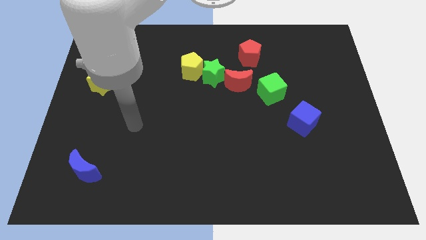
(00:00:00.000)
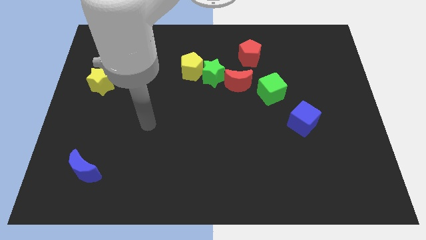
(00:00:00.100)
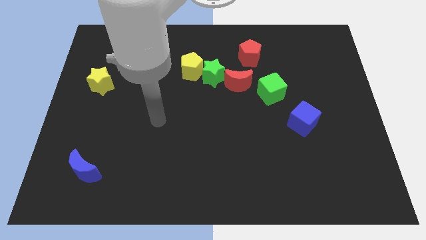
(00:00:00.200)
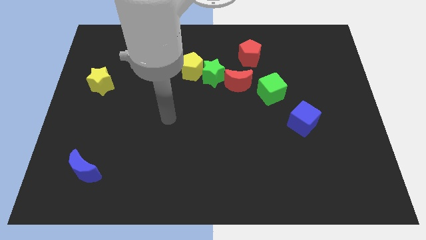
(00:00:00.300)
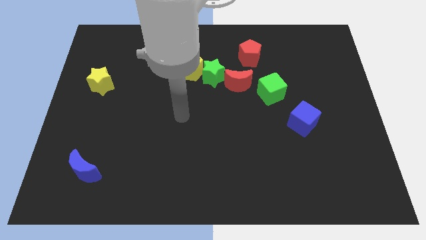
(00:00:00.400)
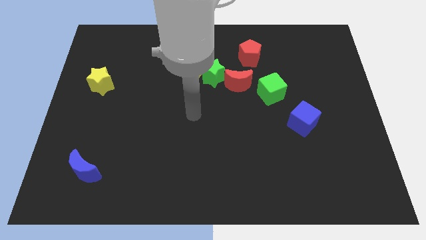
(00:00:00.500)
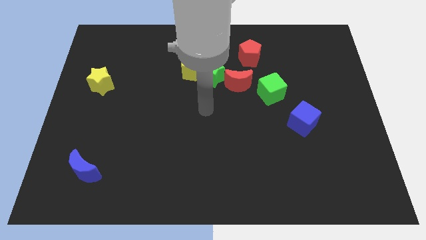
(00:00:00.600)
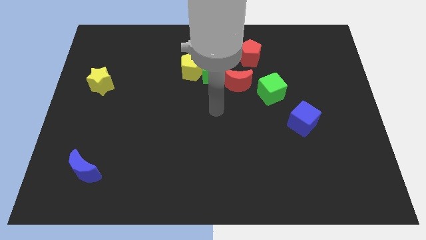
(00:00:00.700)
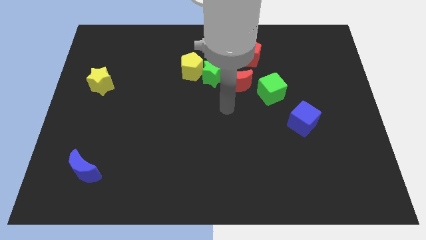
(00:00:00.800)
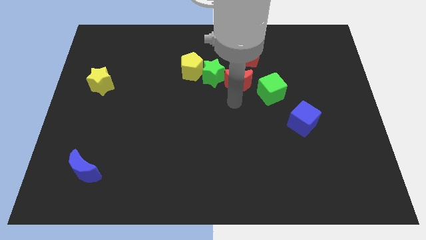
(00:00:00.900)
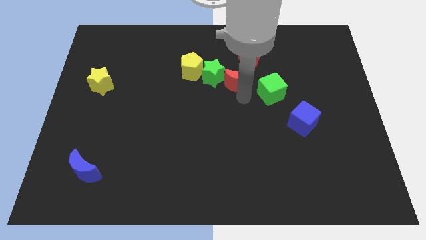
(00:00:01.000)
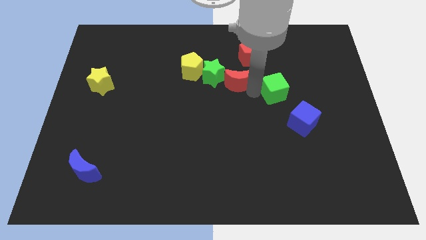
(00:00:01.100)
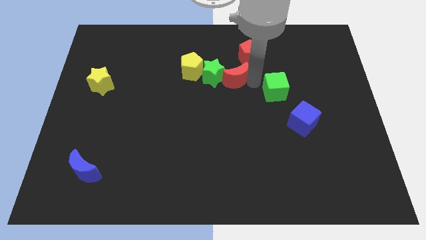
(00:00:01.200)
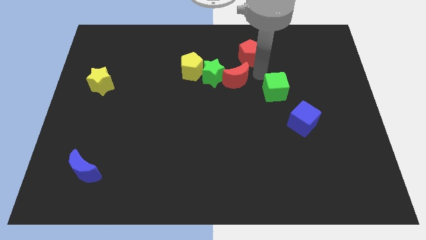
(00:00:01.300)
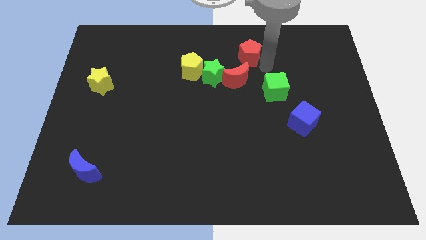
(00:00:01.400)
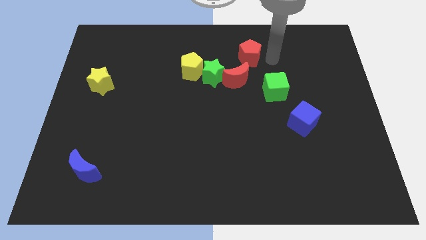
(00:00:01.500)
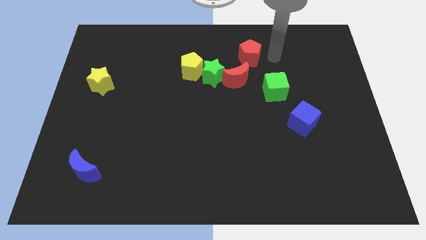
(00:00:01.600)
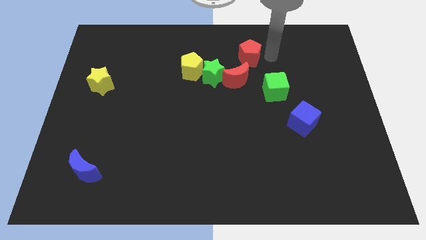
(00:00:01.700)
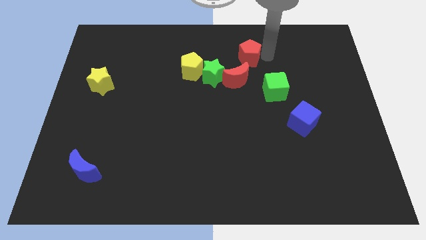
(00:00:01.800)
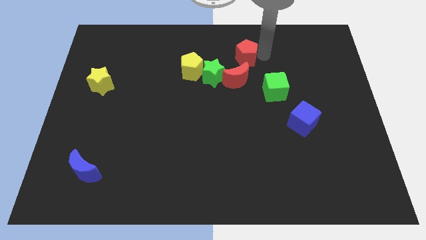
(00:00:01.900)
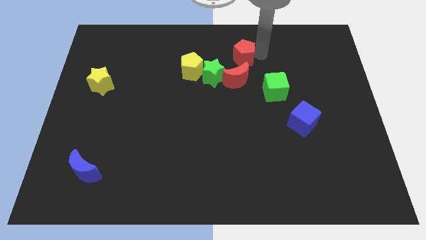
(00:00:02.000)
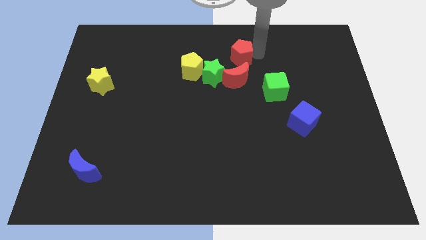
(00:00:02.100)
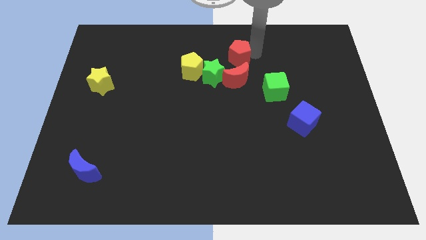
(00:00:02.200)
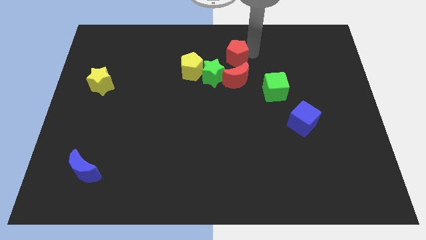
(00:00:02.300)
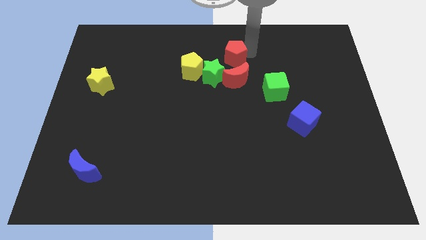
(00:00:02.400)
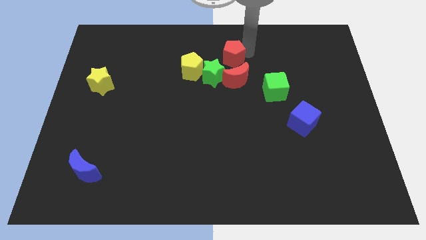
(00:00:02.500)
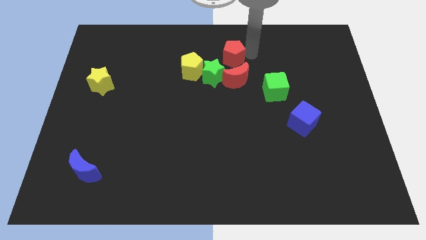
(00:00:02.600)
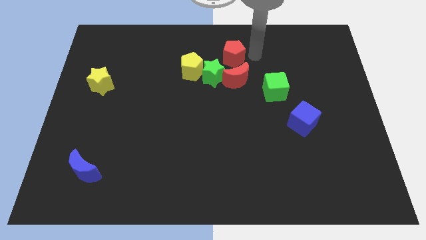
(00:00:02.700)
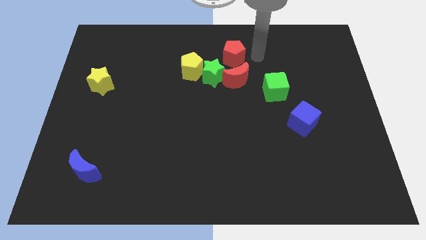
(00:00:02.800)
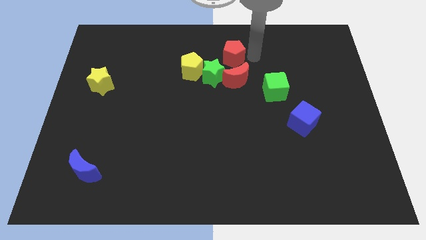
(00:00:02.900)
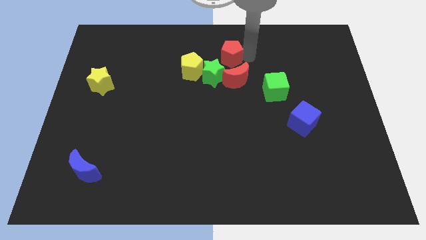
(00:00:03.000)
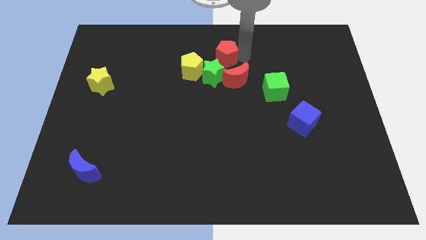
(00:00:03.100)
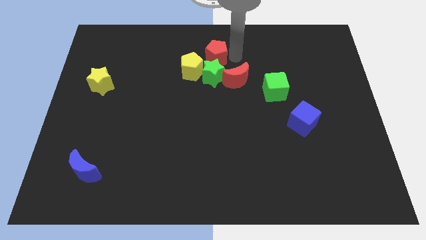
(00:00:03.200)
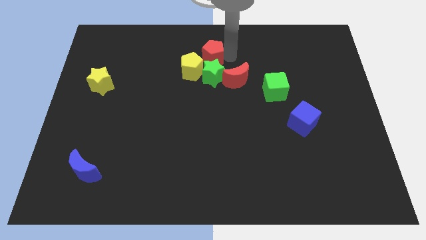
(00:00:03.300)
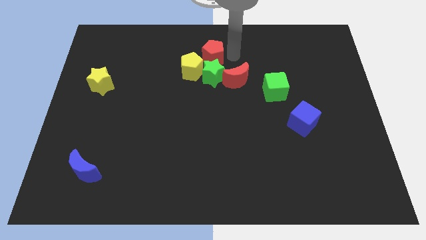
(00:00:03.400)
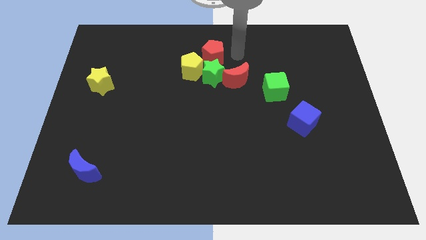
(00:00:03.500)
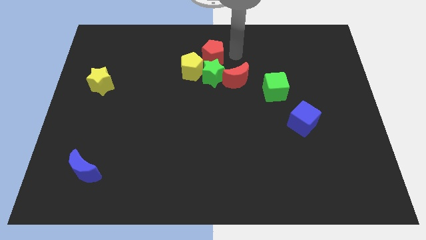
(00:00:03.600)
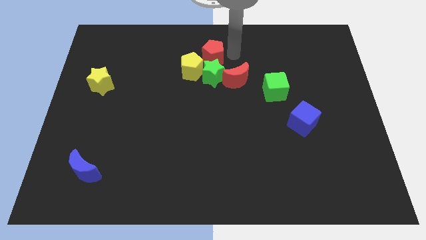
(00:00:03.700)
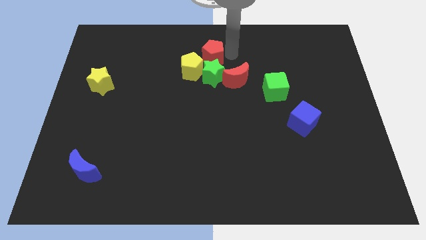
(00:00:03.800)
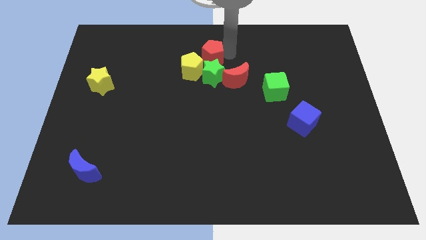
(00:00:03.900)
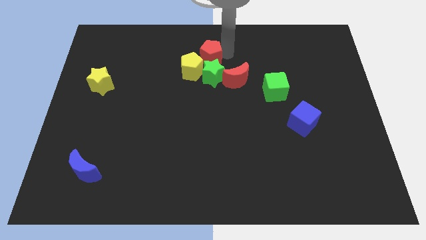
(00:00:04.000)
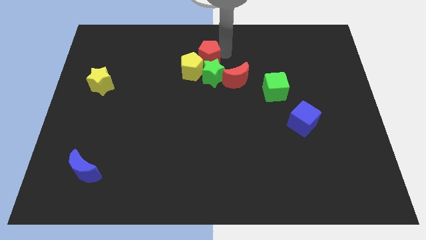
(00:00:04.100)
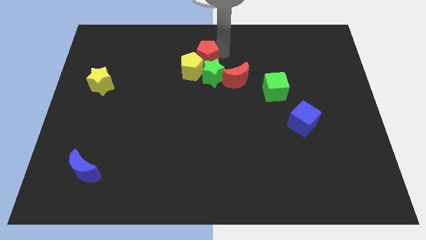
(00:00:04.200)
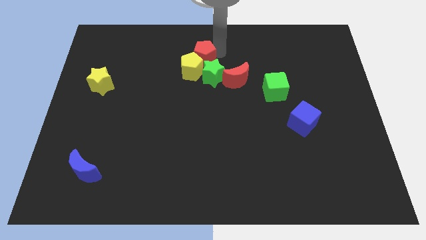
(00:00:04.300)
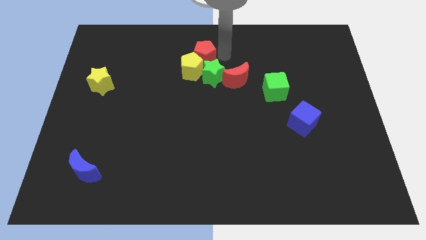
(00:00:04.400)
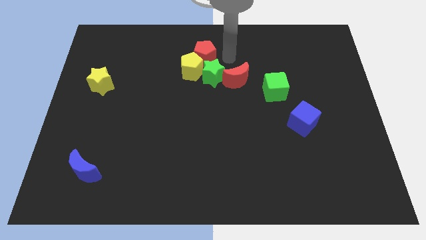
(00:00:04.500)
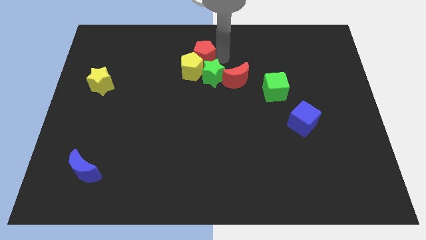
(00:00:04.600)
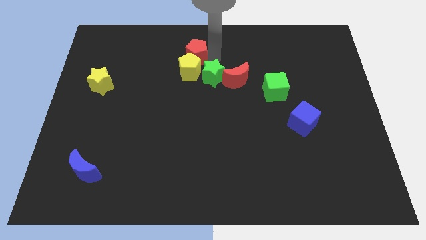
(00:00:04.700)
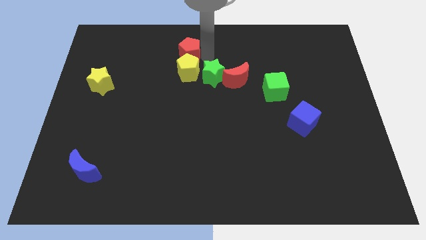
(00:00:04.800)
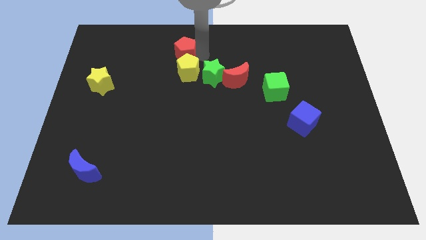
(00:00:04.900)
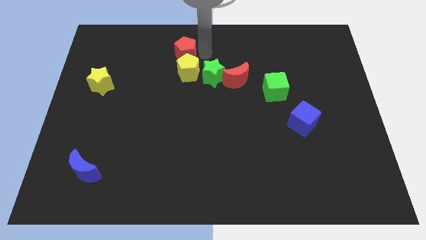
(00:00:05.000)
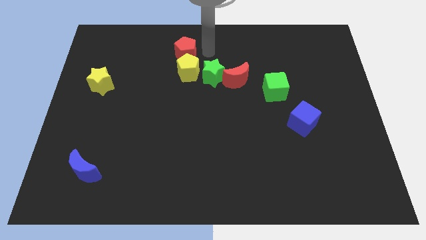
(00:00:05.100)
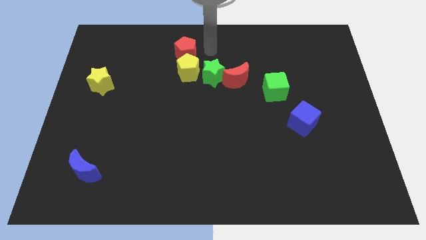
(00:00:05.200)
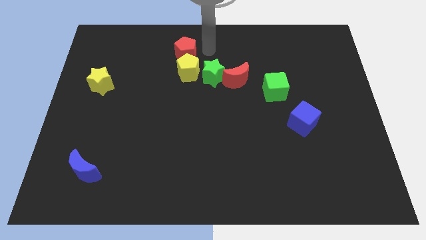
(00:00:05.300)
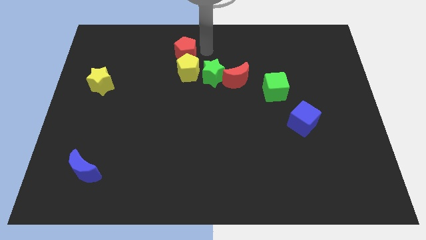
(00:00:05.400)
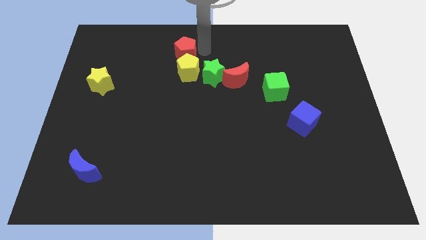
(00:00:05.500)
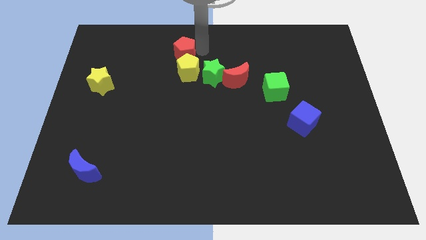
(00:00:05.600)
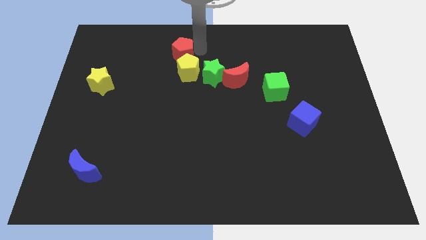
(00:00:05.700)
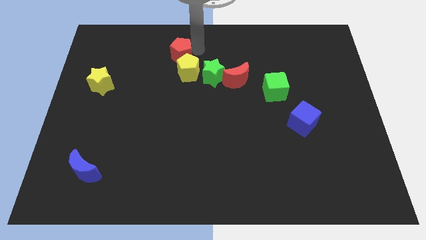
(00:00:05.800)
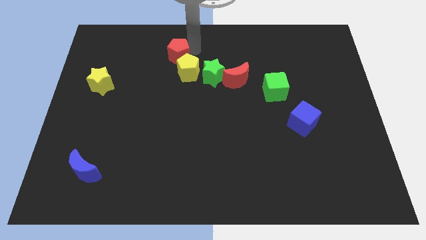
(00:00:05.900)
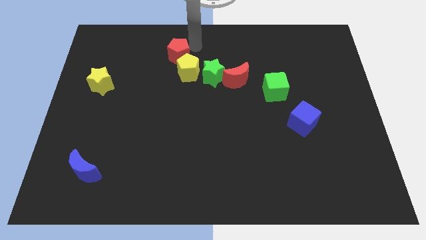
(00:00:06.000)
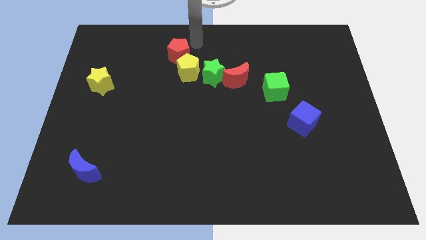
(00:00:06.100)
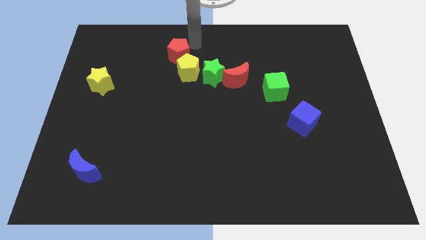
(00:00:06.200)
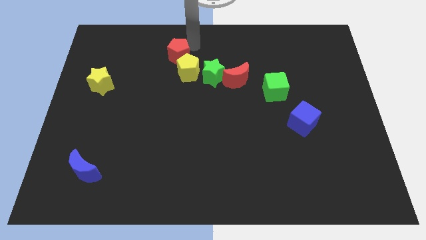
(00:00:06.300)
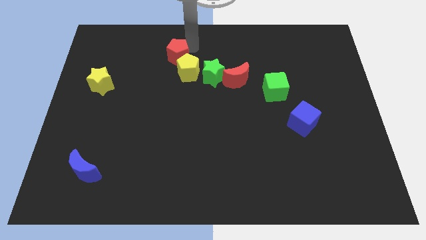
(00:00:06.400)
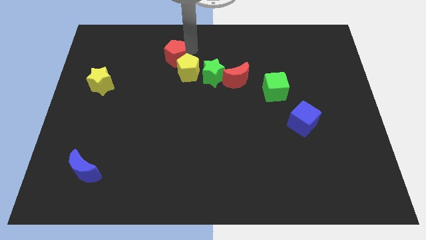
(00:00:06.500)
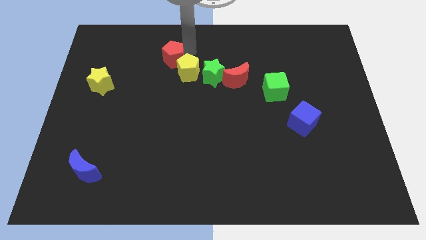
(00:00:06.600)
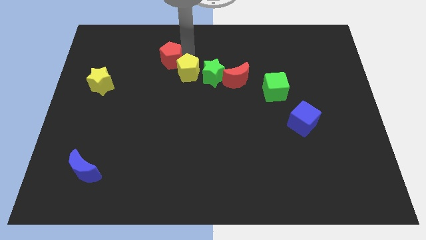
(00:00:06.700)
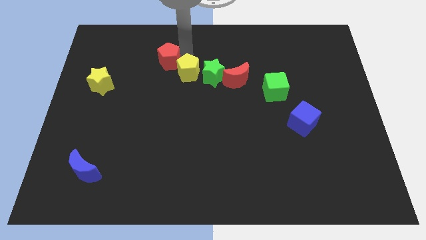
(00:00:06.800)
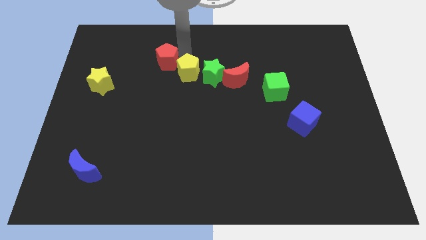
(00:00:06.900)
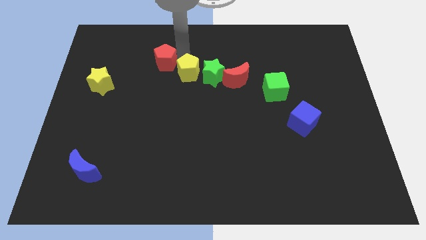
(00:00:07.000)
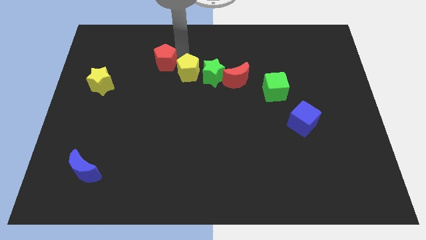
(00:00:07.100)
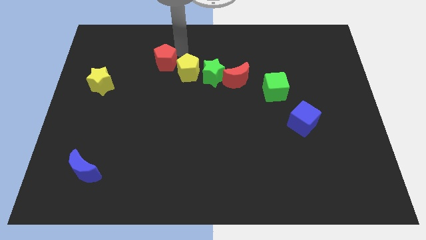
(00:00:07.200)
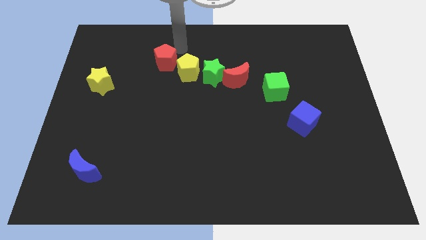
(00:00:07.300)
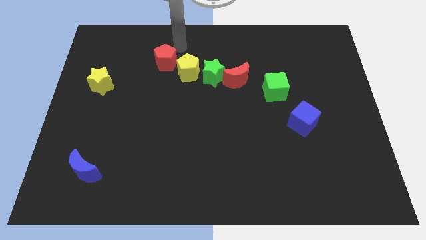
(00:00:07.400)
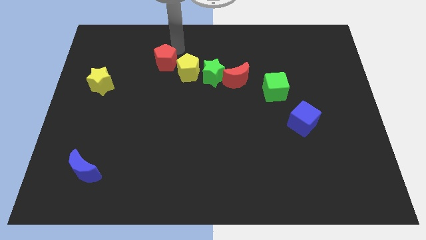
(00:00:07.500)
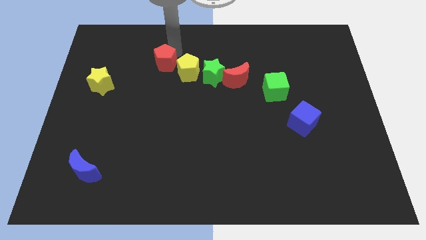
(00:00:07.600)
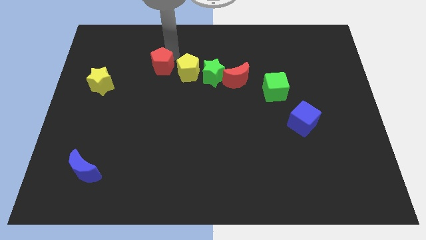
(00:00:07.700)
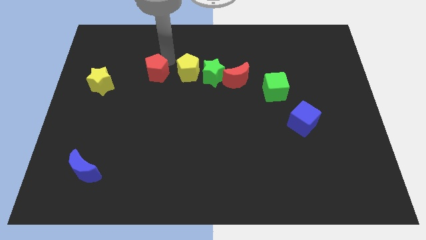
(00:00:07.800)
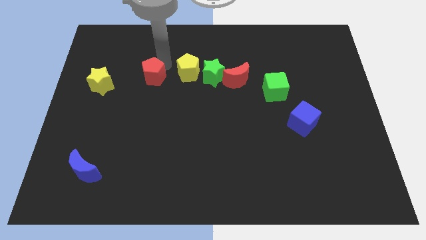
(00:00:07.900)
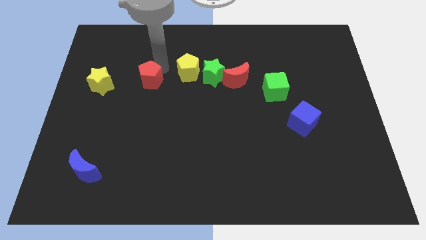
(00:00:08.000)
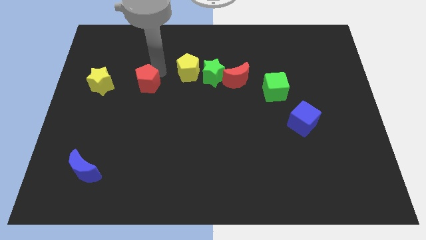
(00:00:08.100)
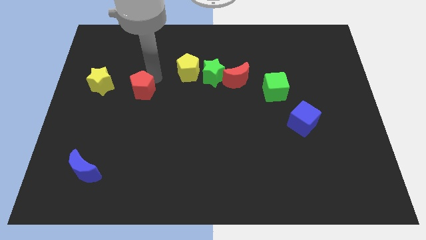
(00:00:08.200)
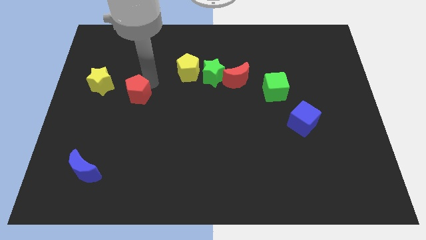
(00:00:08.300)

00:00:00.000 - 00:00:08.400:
slide the red pentagon diagonally down and to the right of the yellow star
